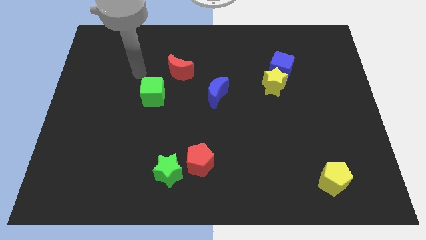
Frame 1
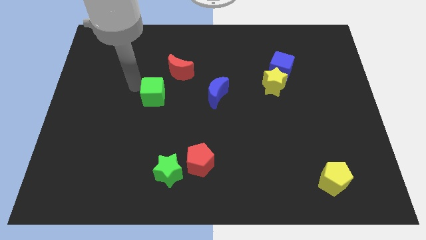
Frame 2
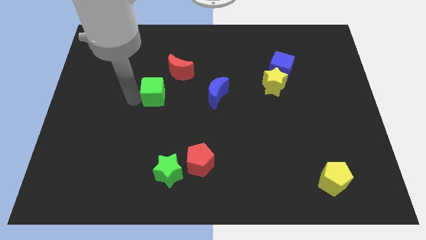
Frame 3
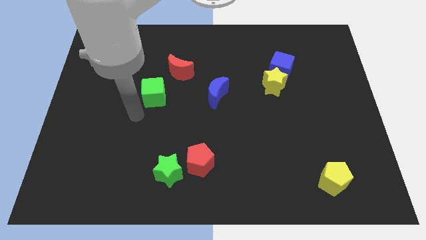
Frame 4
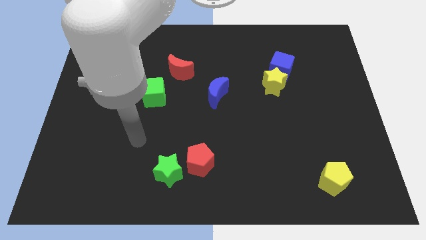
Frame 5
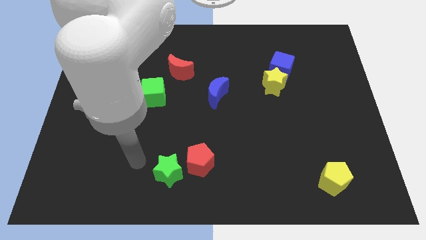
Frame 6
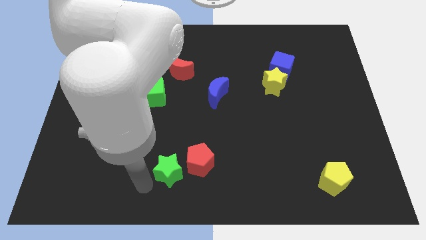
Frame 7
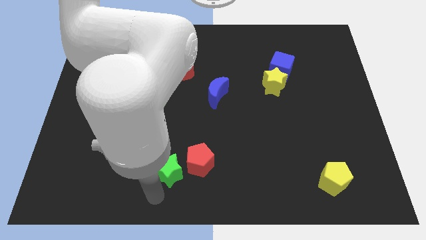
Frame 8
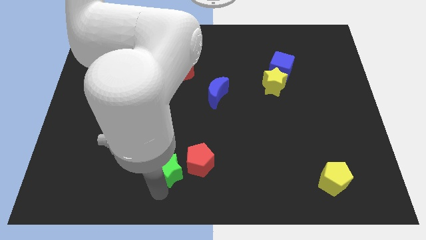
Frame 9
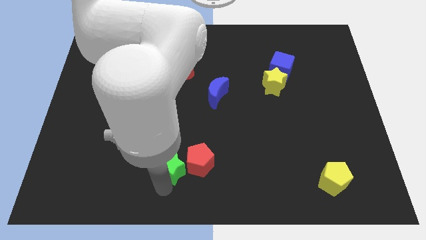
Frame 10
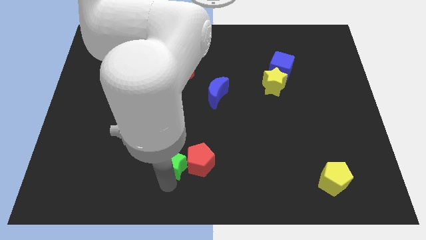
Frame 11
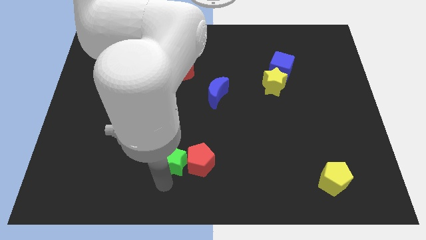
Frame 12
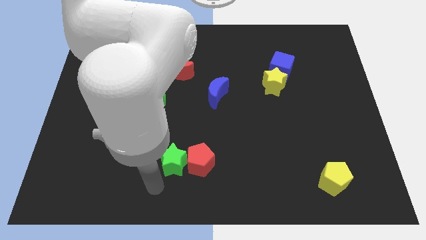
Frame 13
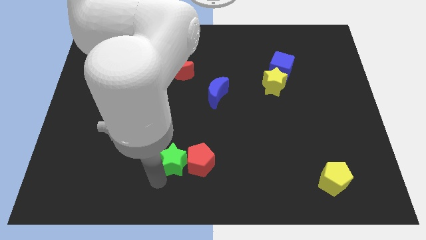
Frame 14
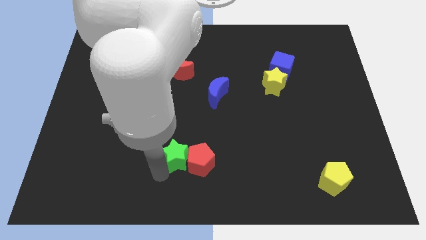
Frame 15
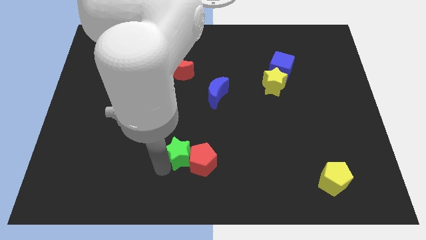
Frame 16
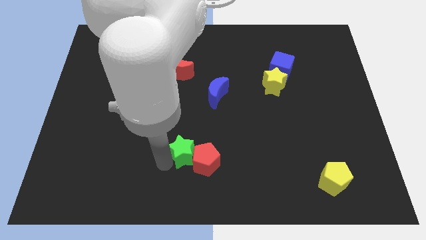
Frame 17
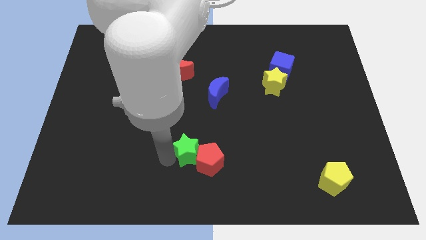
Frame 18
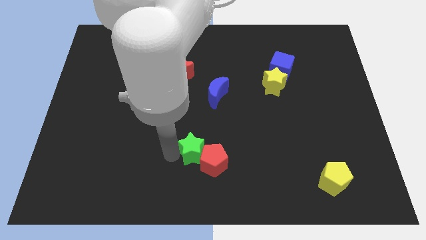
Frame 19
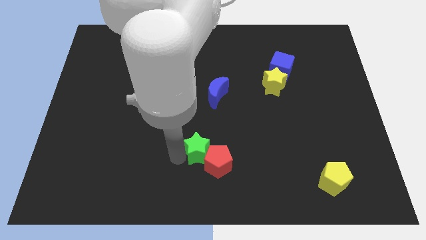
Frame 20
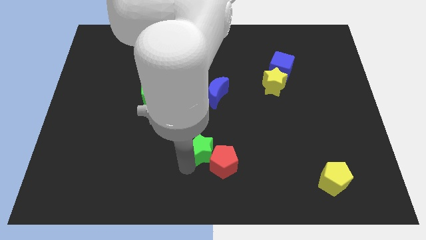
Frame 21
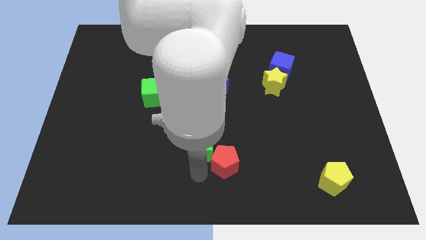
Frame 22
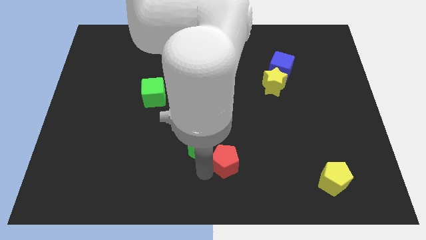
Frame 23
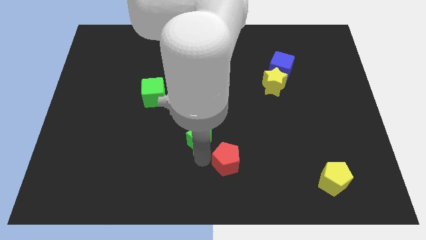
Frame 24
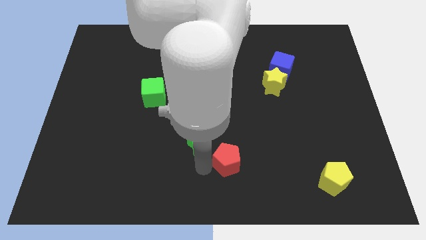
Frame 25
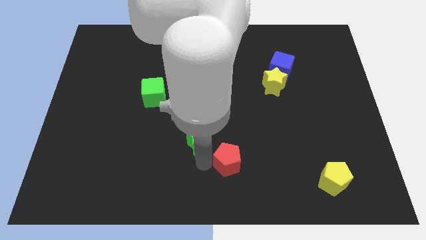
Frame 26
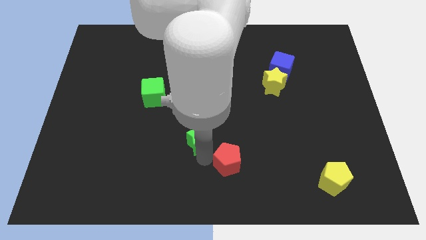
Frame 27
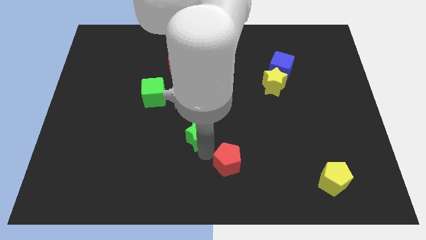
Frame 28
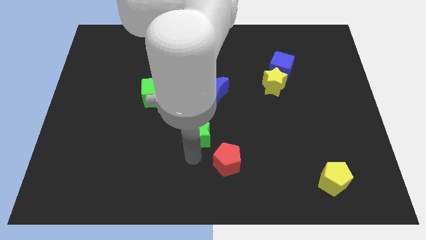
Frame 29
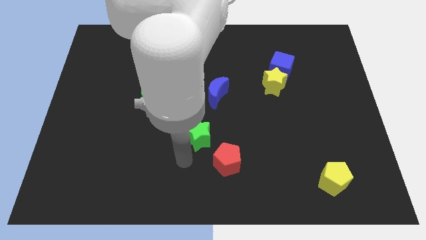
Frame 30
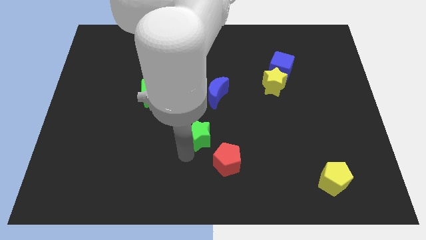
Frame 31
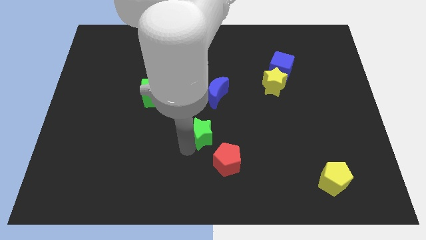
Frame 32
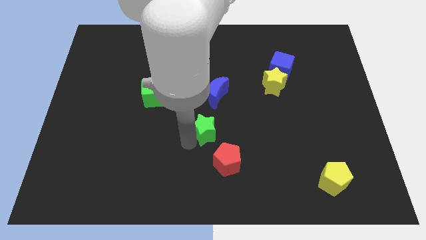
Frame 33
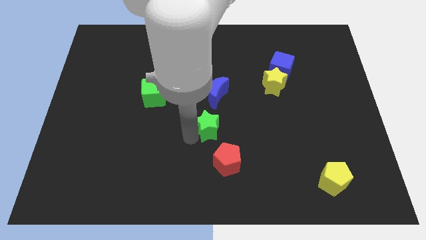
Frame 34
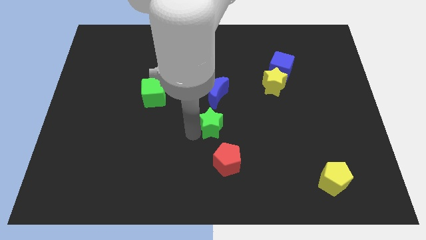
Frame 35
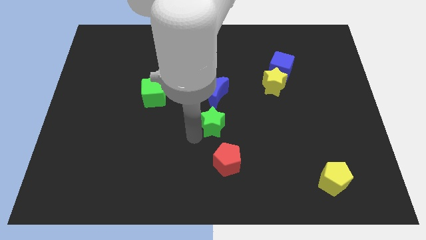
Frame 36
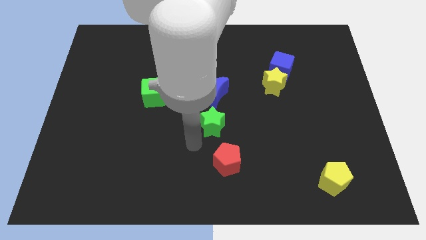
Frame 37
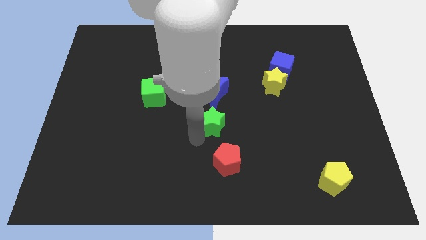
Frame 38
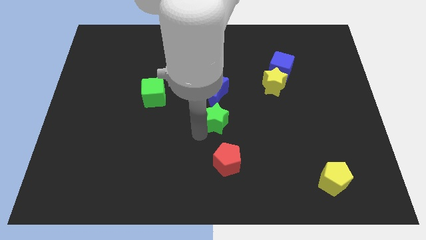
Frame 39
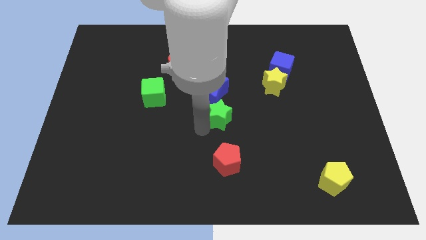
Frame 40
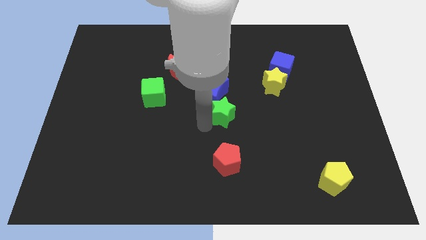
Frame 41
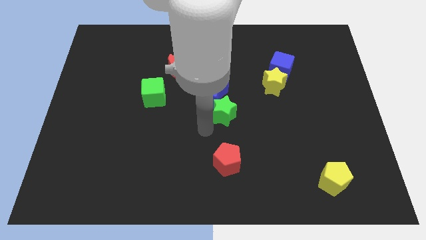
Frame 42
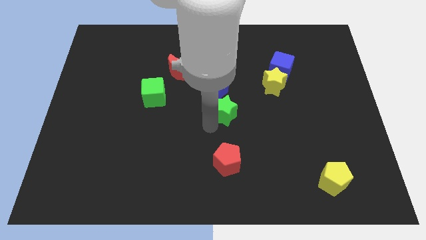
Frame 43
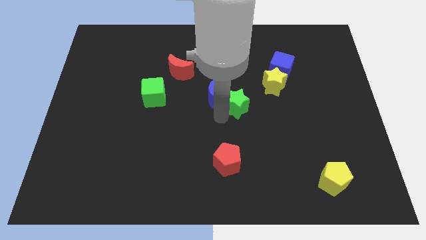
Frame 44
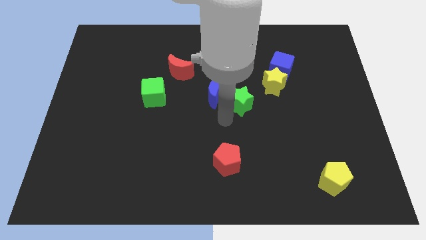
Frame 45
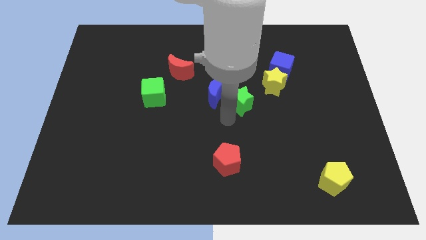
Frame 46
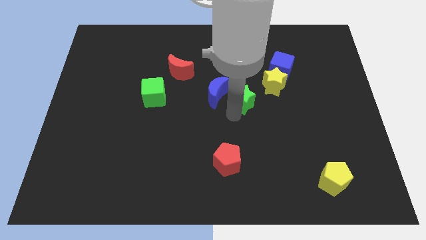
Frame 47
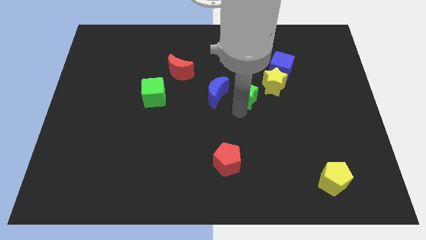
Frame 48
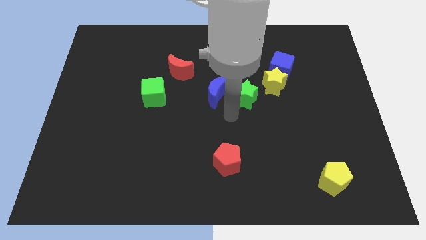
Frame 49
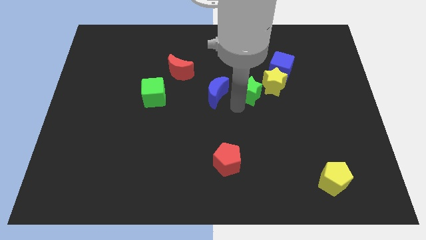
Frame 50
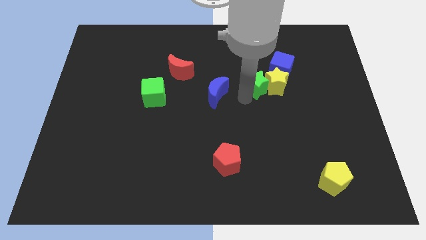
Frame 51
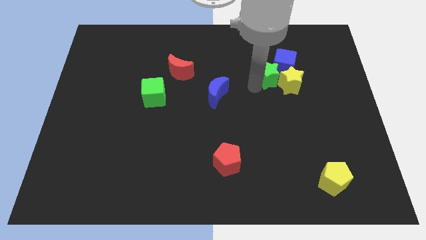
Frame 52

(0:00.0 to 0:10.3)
slide the green star to the blue cube

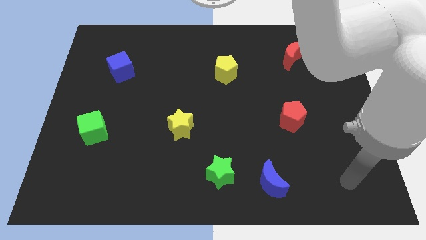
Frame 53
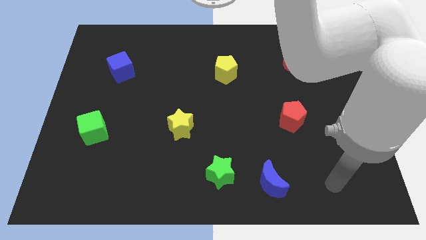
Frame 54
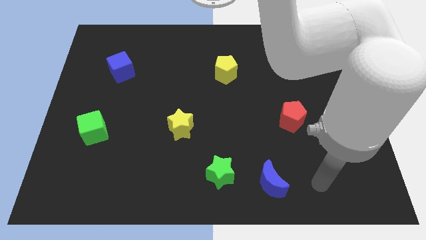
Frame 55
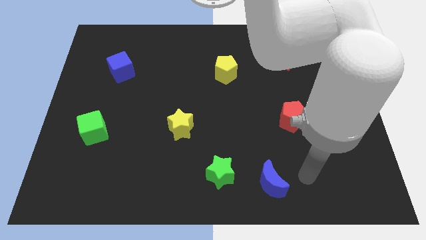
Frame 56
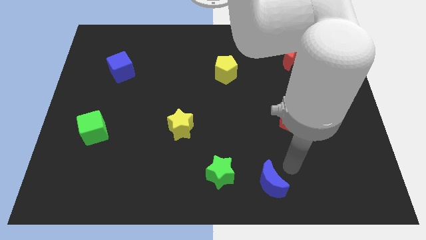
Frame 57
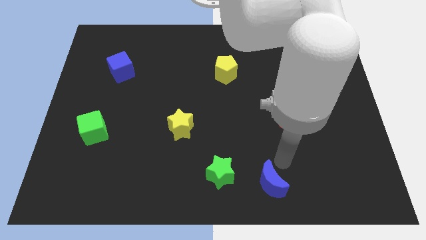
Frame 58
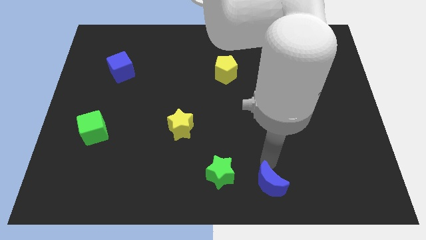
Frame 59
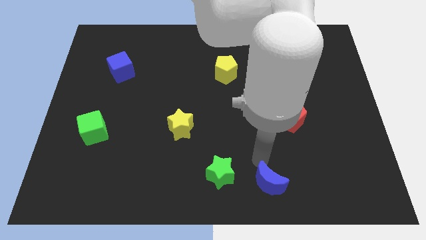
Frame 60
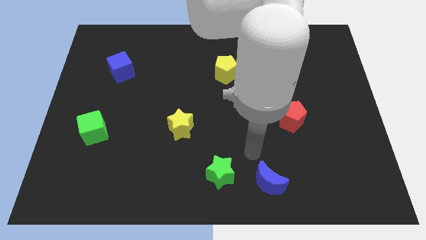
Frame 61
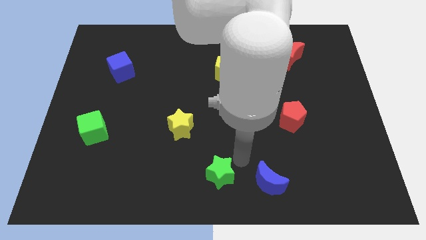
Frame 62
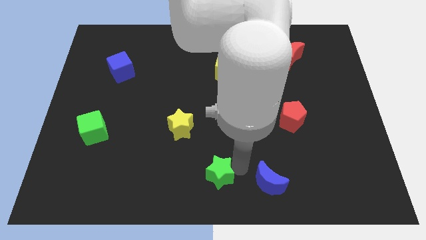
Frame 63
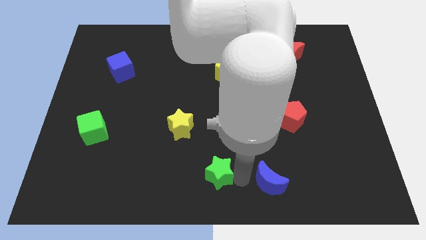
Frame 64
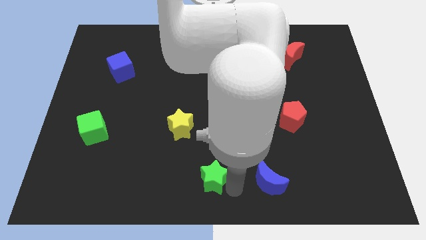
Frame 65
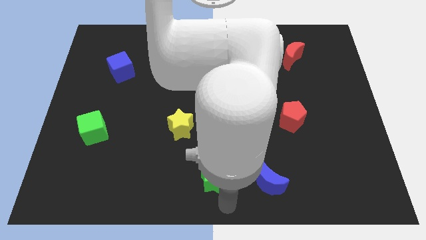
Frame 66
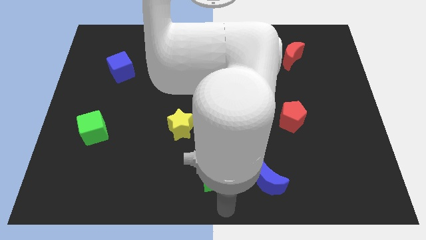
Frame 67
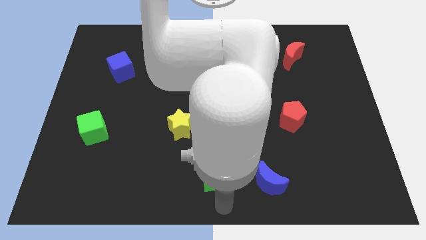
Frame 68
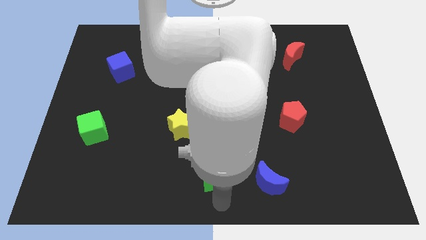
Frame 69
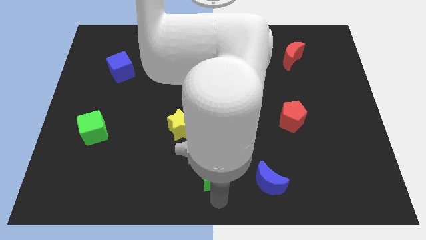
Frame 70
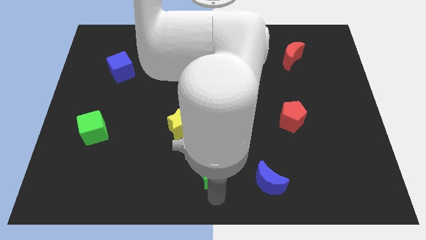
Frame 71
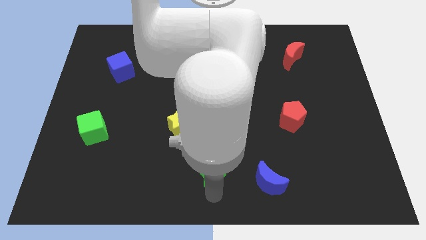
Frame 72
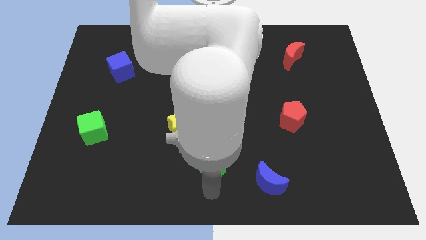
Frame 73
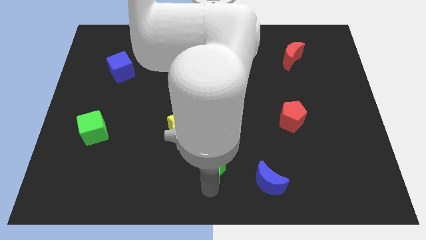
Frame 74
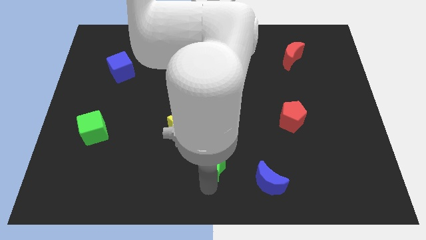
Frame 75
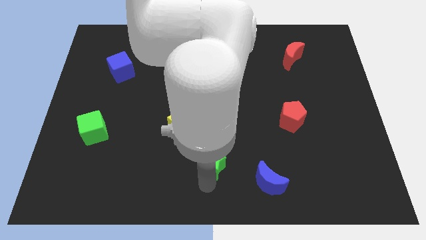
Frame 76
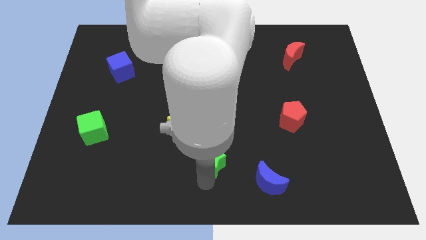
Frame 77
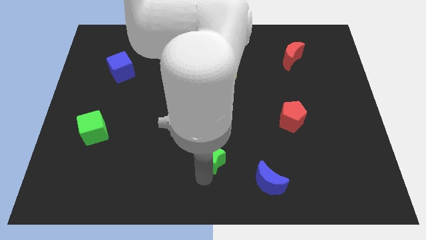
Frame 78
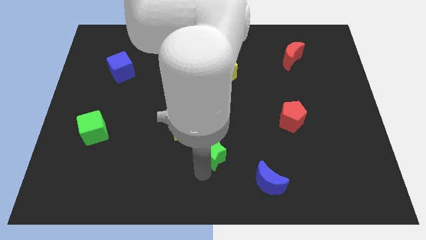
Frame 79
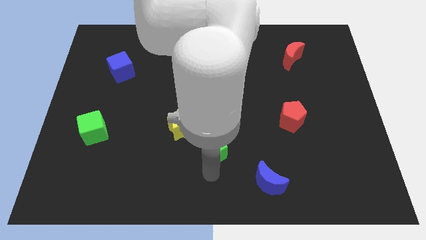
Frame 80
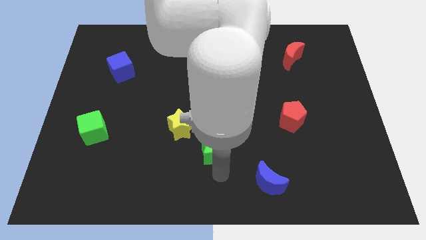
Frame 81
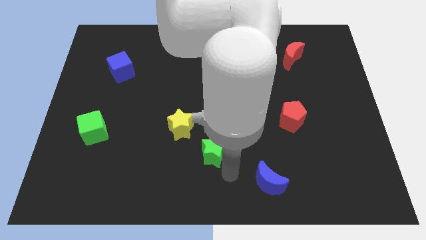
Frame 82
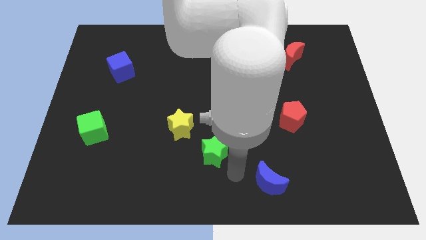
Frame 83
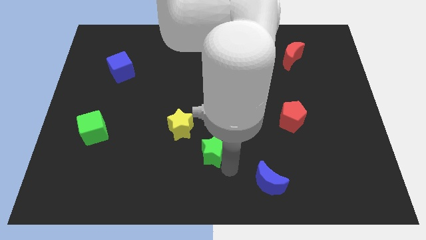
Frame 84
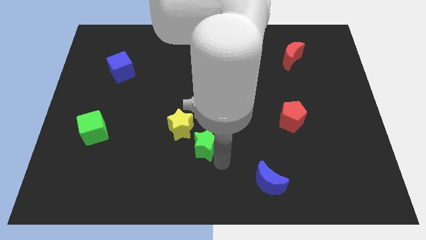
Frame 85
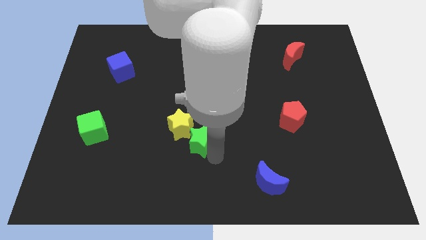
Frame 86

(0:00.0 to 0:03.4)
slide the green star next to the yellow star
